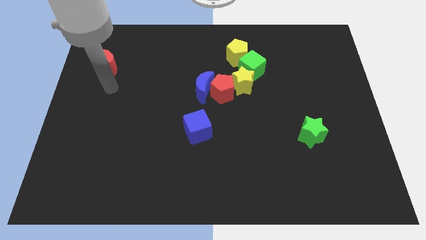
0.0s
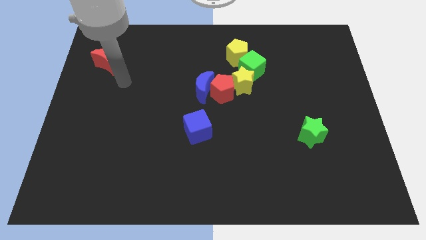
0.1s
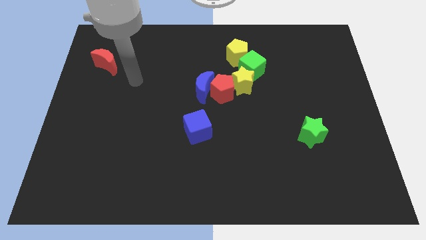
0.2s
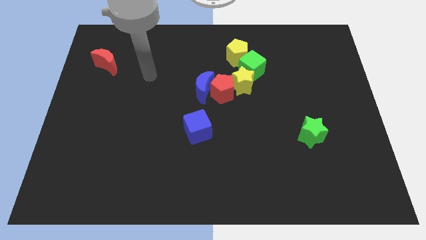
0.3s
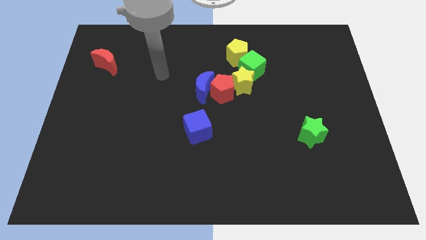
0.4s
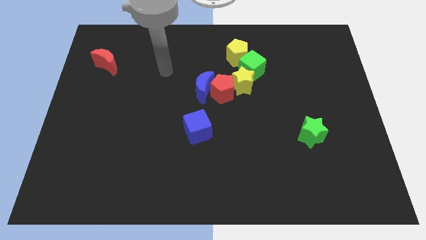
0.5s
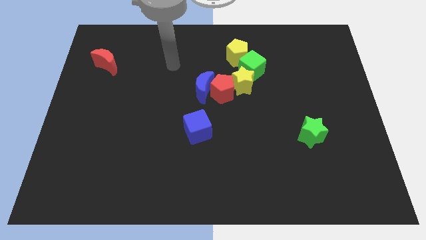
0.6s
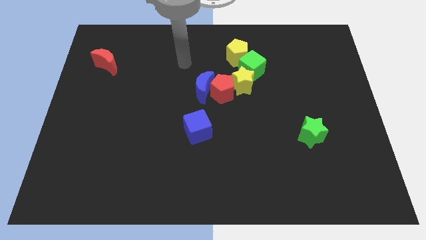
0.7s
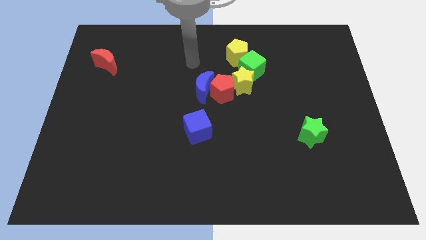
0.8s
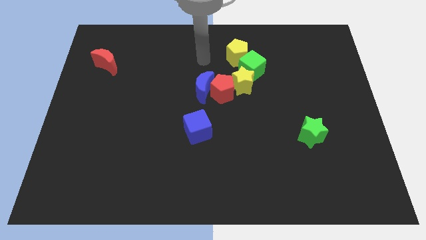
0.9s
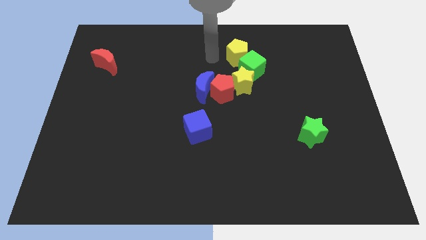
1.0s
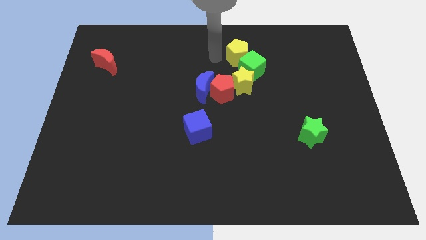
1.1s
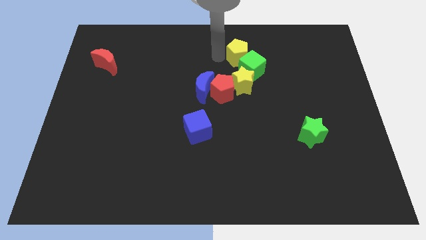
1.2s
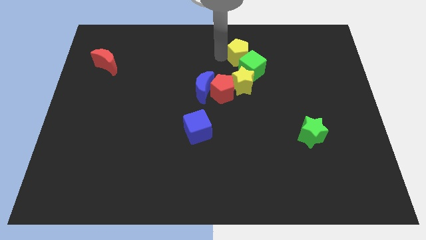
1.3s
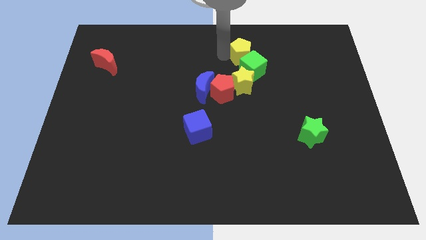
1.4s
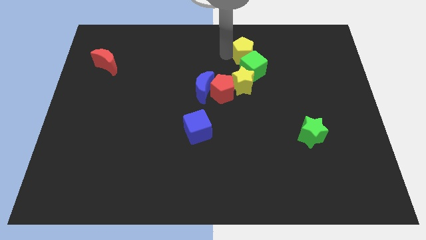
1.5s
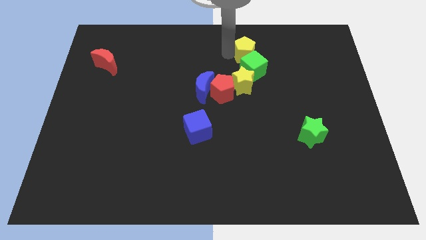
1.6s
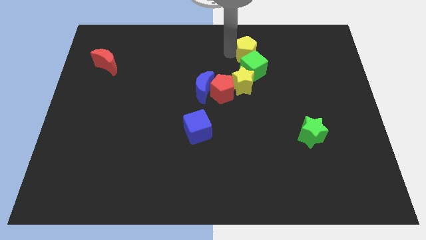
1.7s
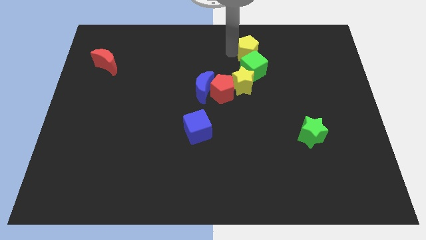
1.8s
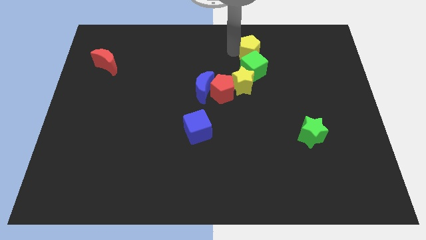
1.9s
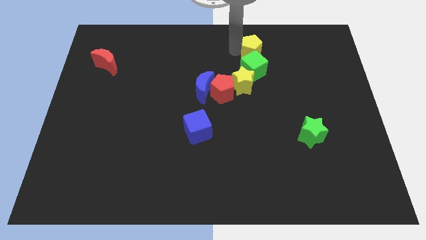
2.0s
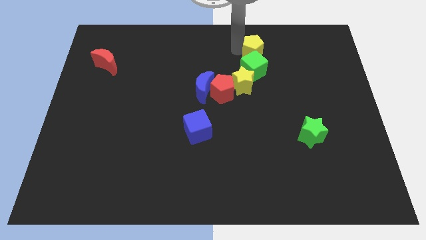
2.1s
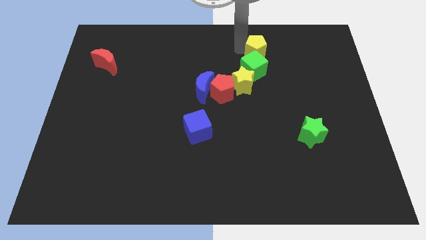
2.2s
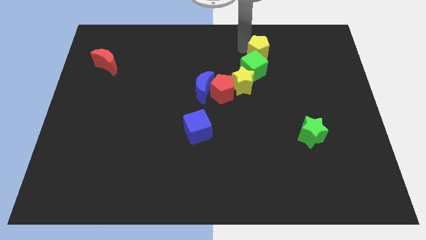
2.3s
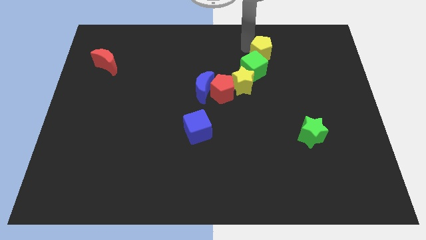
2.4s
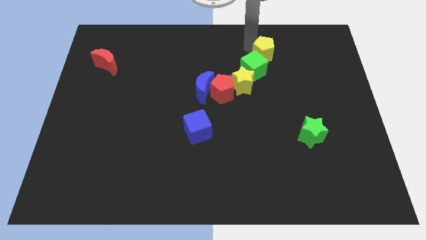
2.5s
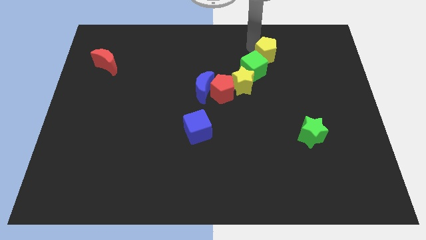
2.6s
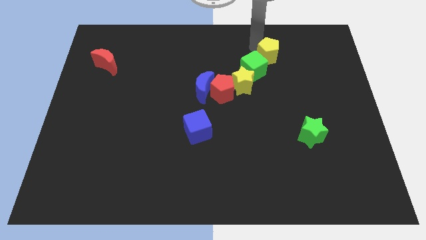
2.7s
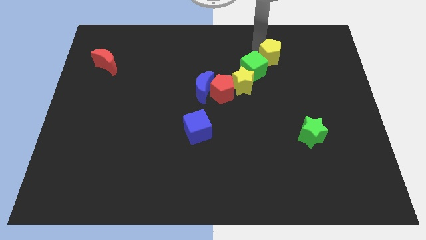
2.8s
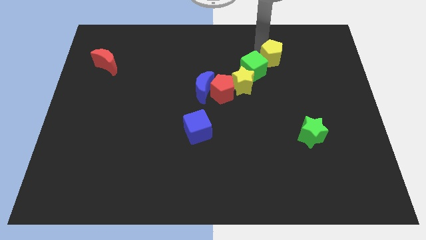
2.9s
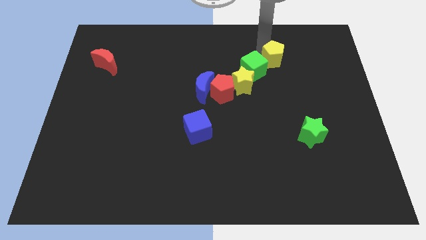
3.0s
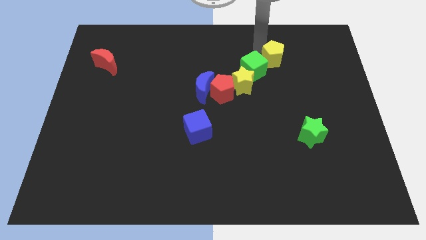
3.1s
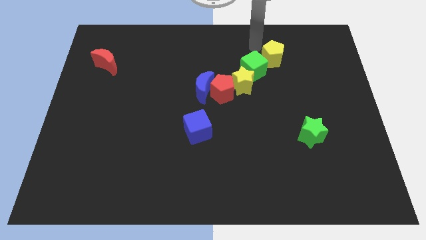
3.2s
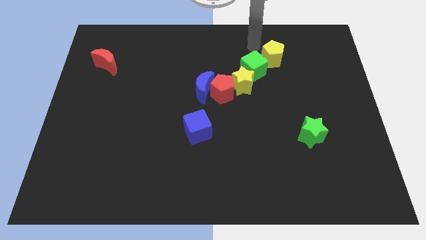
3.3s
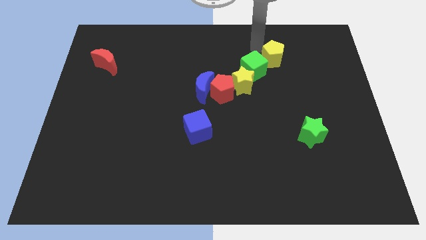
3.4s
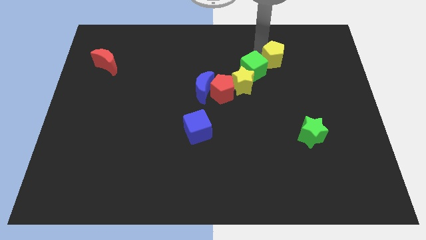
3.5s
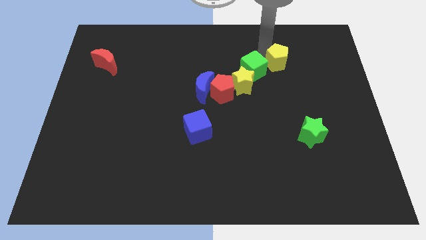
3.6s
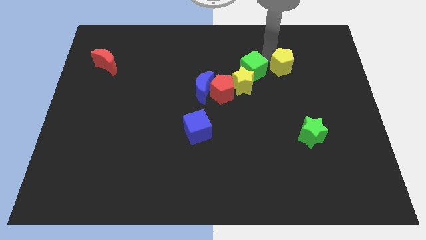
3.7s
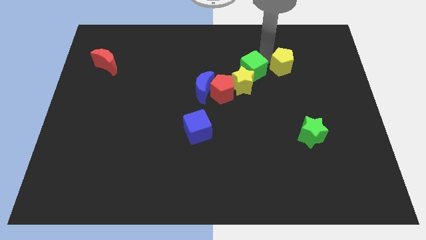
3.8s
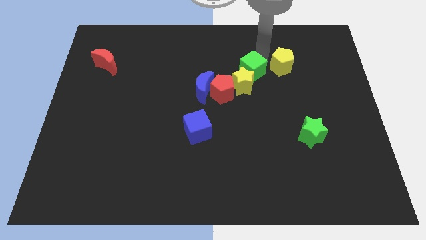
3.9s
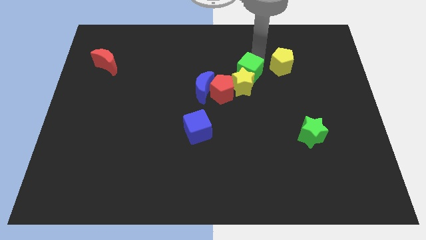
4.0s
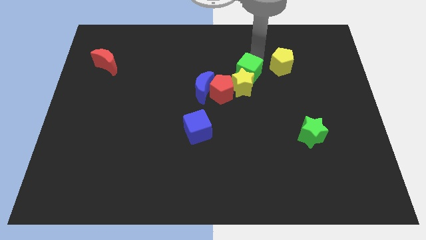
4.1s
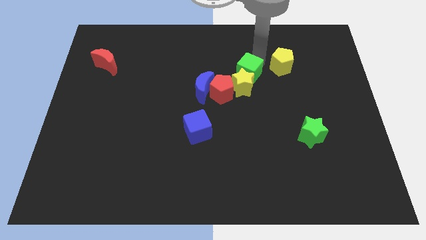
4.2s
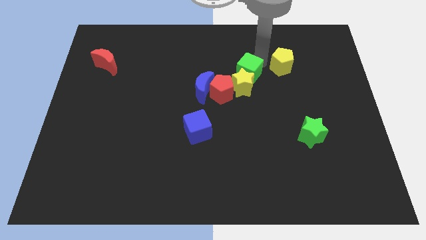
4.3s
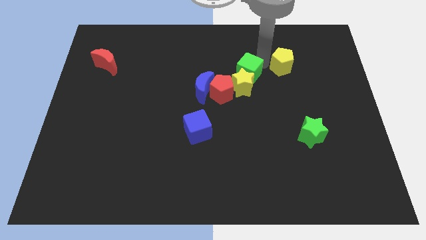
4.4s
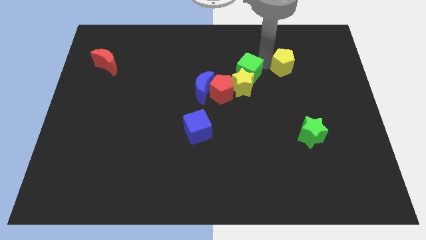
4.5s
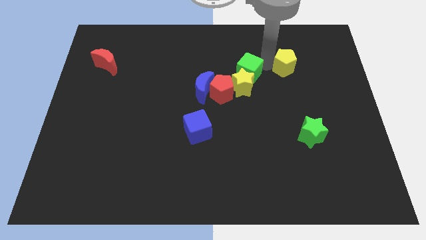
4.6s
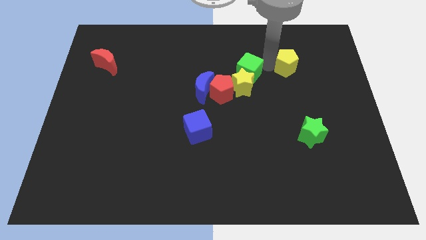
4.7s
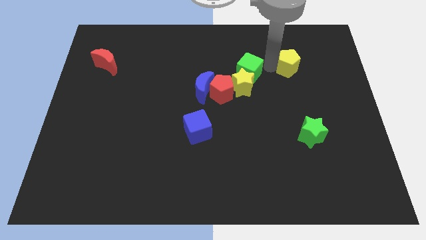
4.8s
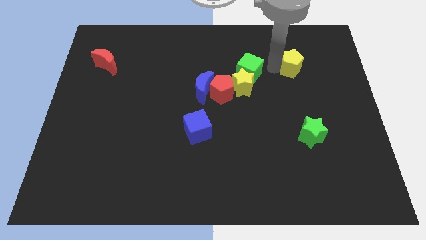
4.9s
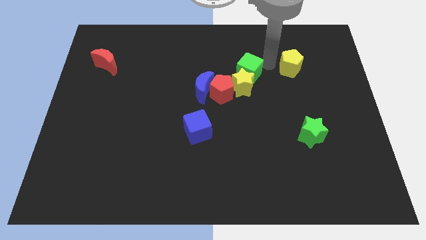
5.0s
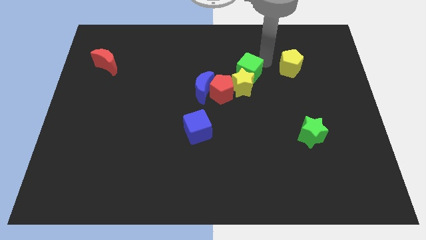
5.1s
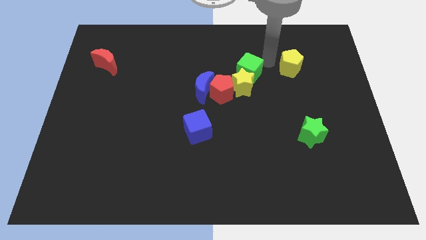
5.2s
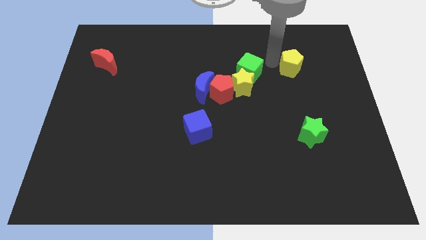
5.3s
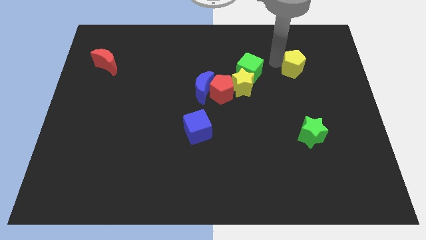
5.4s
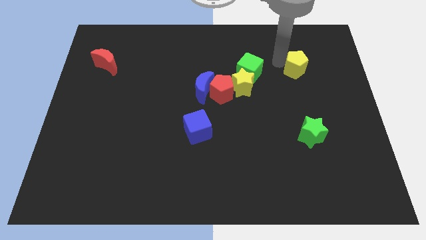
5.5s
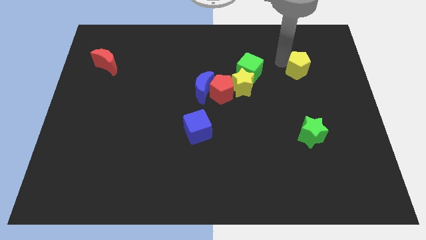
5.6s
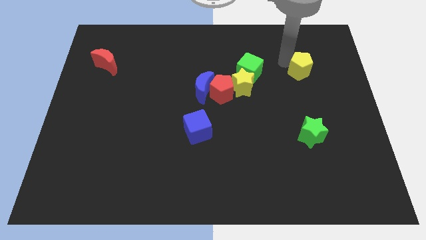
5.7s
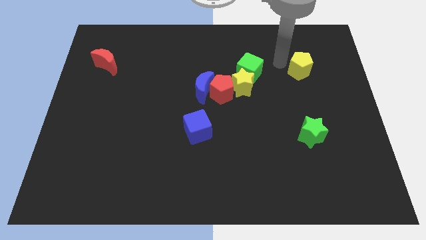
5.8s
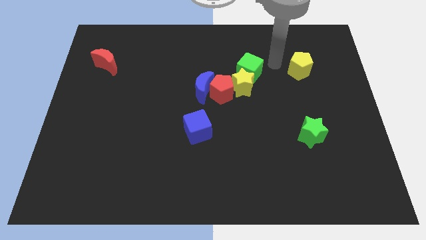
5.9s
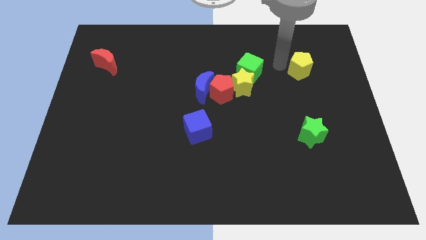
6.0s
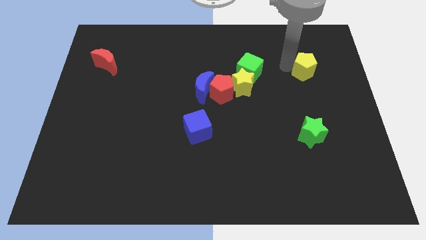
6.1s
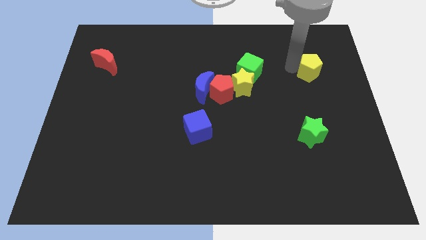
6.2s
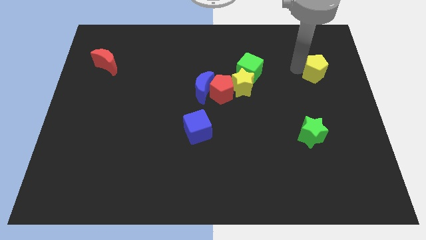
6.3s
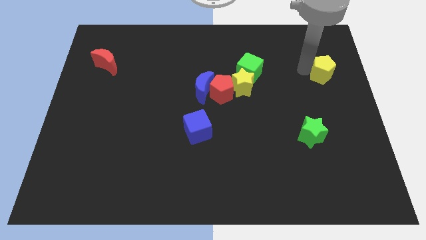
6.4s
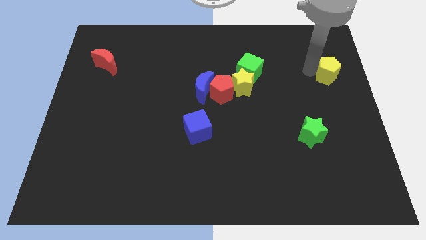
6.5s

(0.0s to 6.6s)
slide the yellow pentagon to the right side of the board
